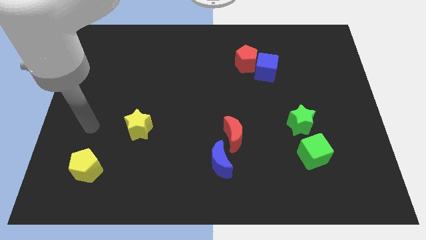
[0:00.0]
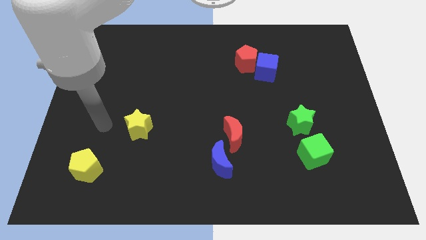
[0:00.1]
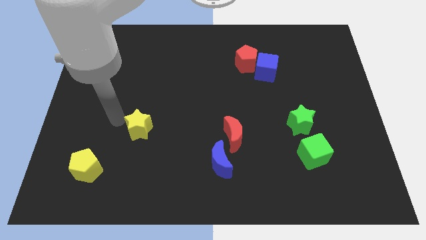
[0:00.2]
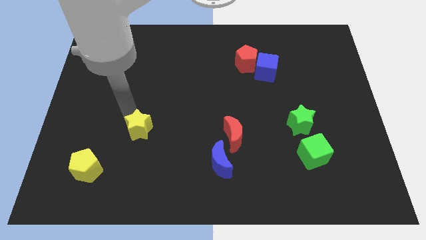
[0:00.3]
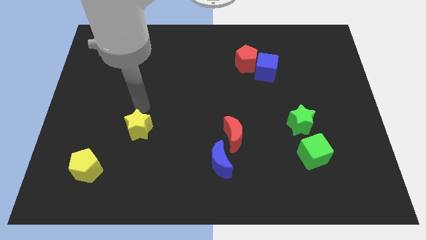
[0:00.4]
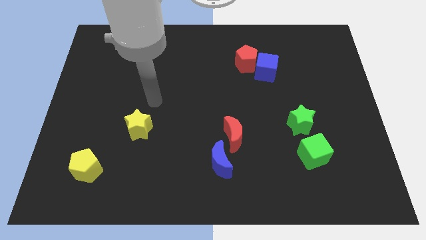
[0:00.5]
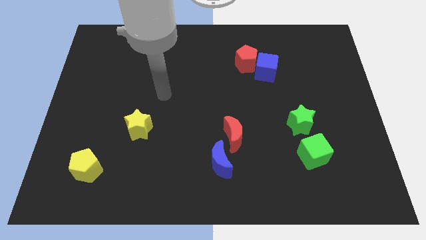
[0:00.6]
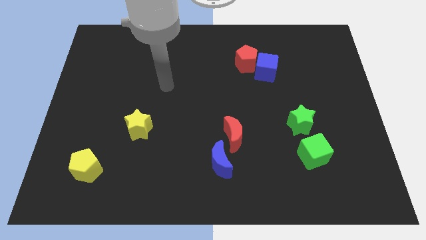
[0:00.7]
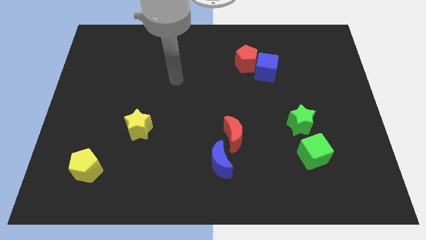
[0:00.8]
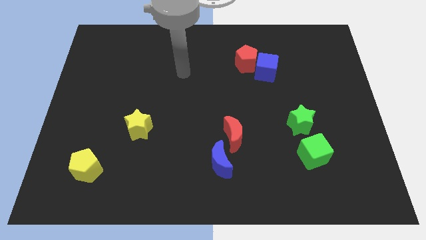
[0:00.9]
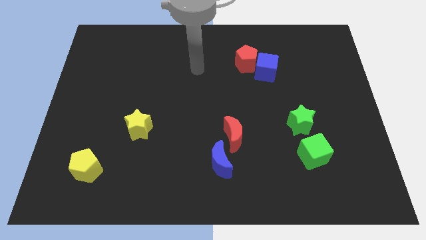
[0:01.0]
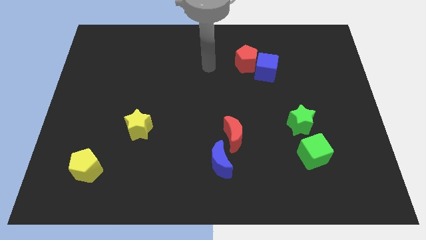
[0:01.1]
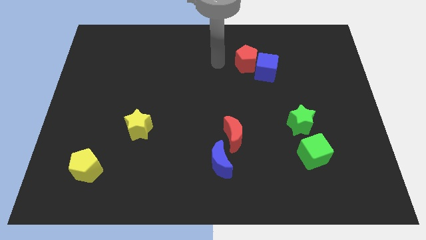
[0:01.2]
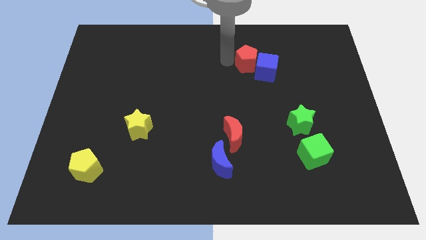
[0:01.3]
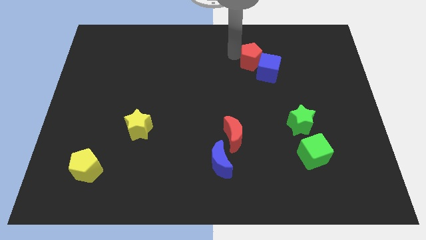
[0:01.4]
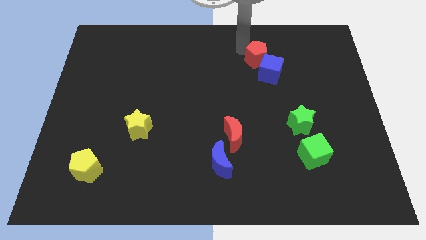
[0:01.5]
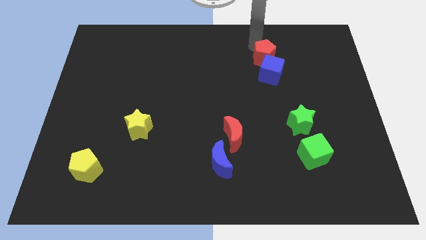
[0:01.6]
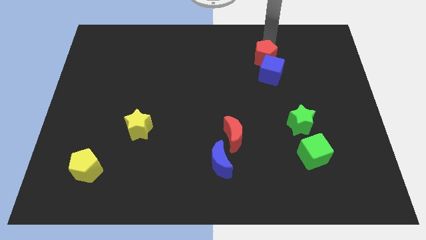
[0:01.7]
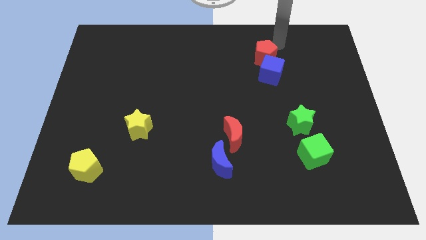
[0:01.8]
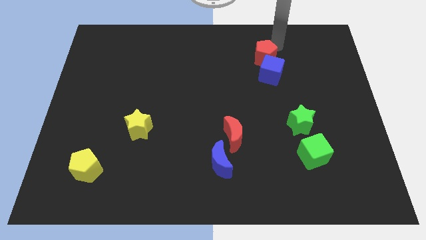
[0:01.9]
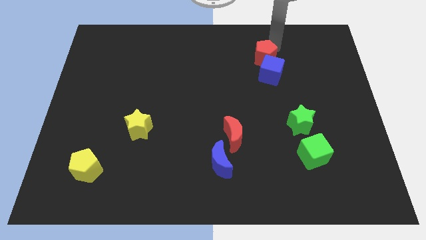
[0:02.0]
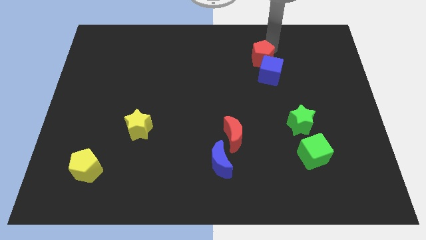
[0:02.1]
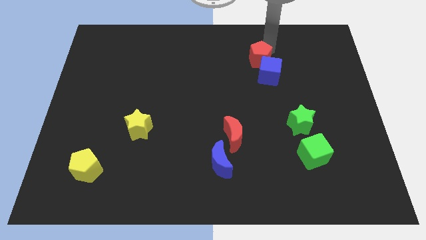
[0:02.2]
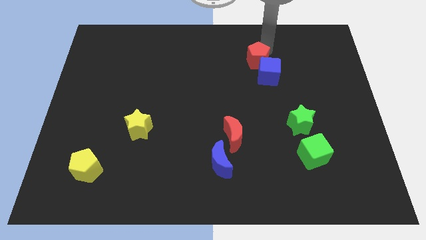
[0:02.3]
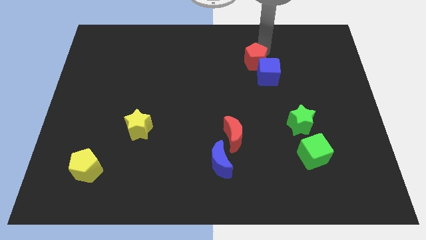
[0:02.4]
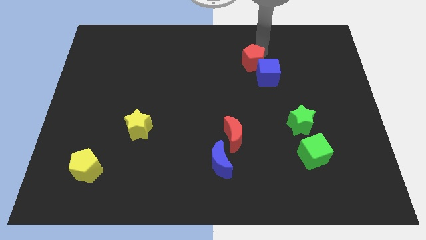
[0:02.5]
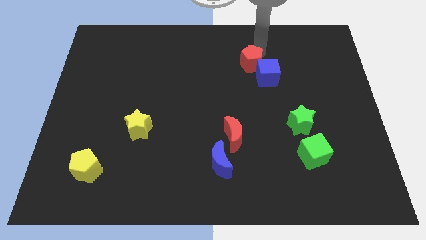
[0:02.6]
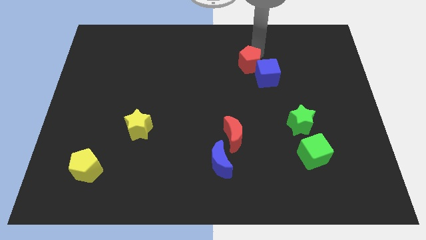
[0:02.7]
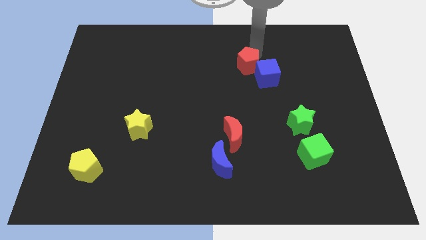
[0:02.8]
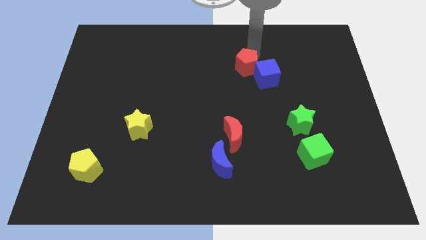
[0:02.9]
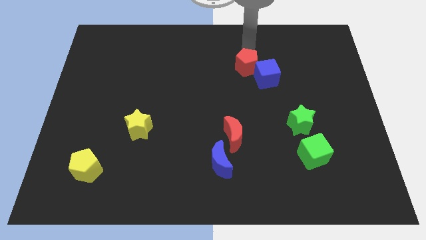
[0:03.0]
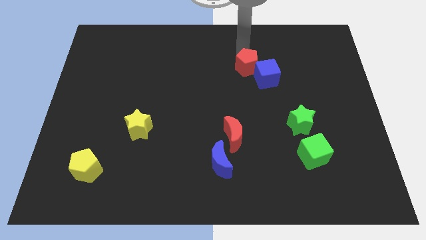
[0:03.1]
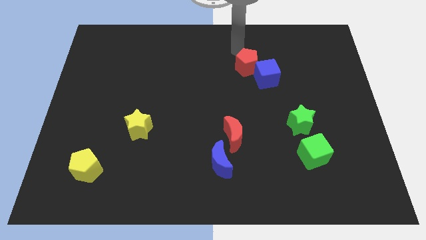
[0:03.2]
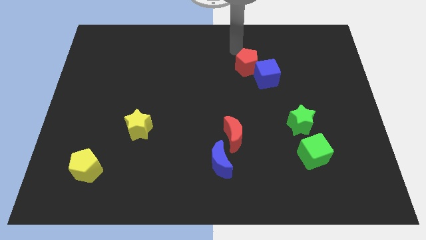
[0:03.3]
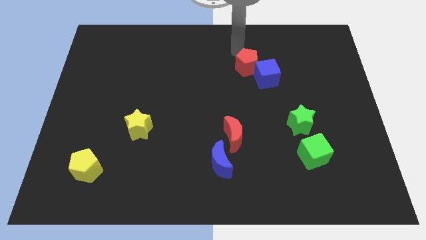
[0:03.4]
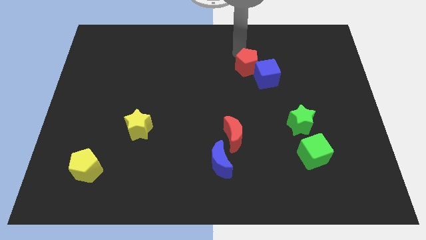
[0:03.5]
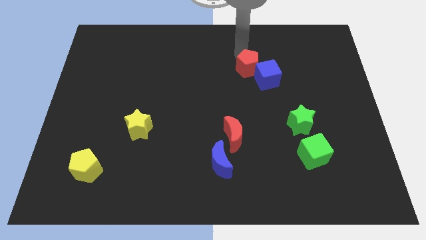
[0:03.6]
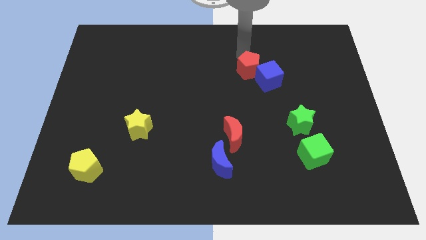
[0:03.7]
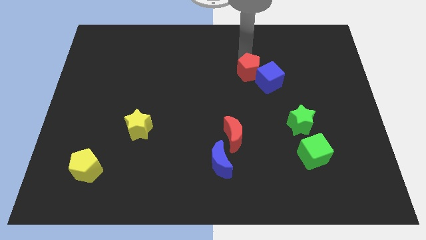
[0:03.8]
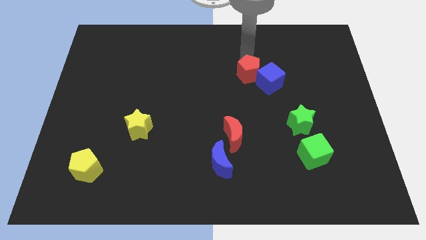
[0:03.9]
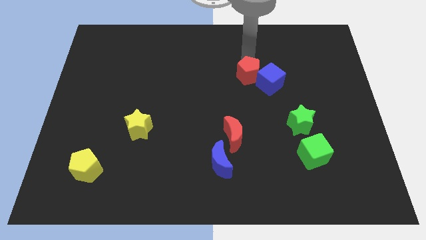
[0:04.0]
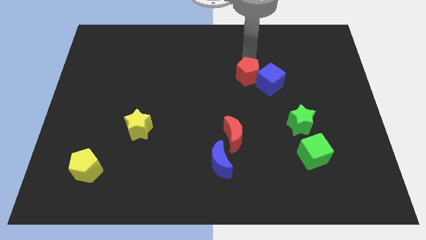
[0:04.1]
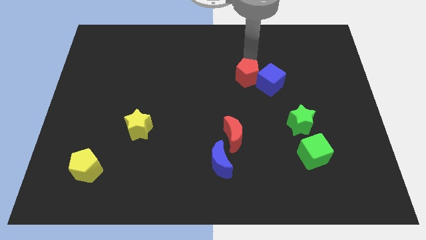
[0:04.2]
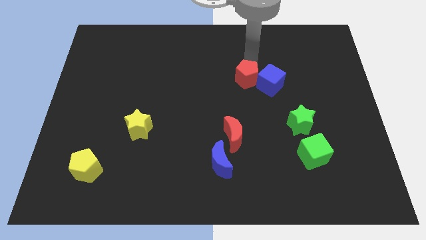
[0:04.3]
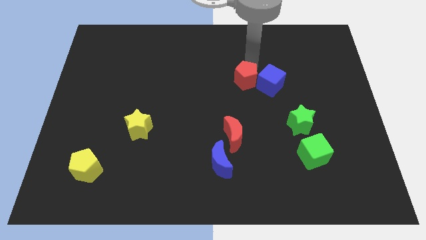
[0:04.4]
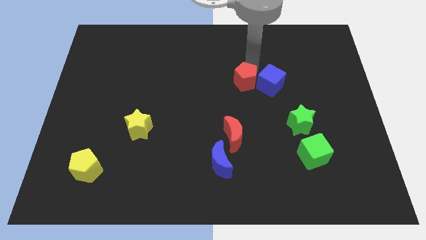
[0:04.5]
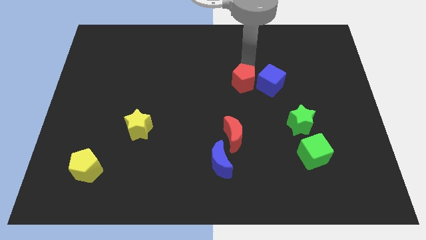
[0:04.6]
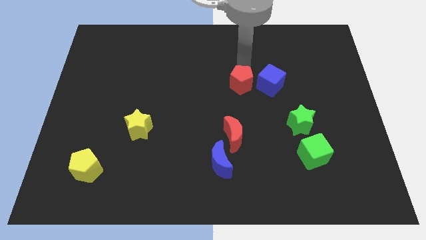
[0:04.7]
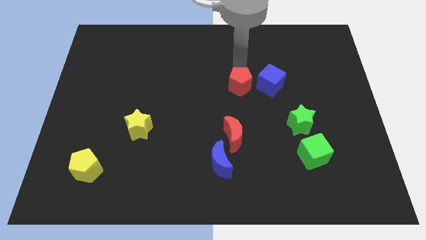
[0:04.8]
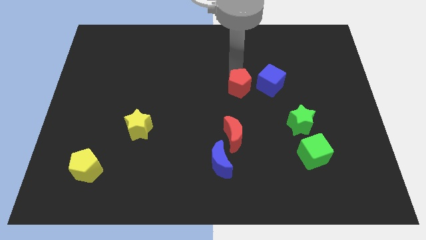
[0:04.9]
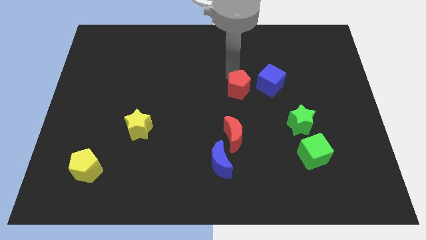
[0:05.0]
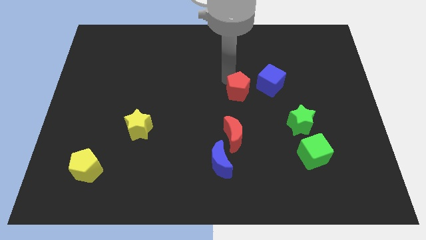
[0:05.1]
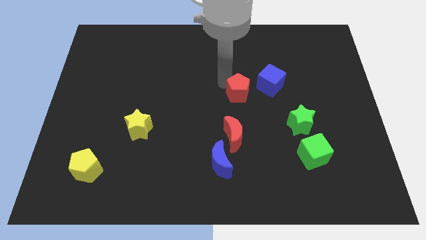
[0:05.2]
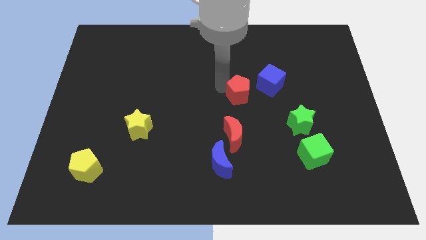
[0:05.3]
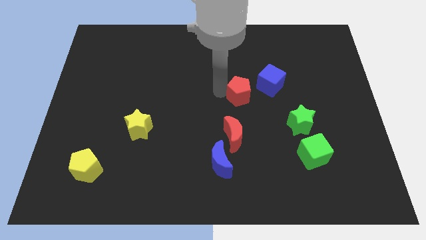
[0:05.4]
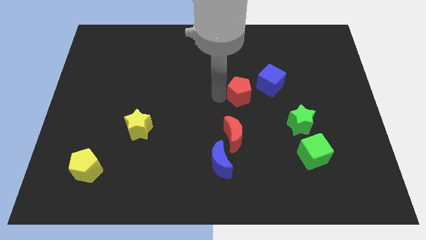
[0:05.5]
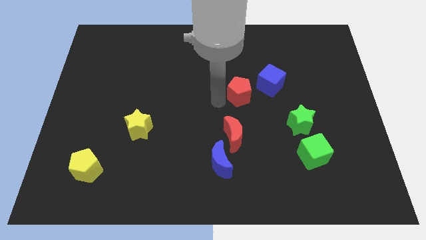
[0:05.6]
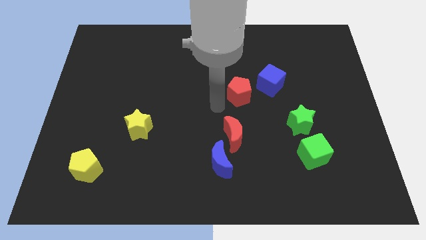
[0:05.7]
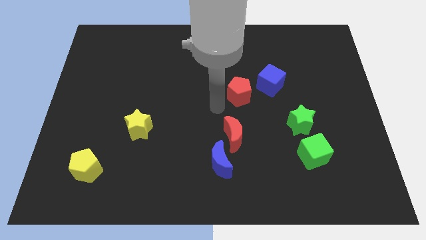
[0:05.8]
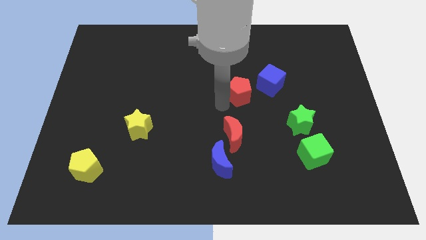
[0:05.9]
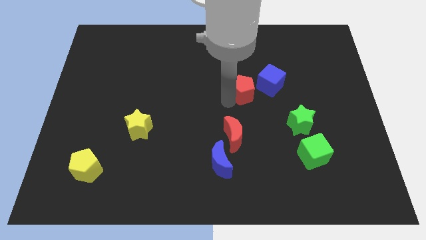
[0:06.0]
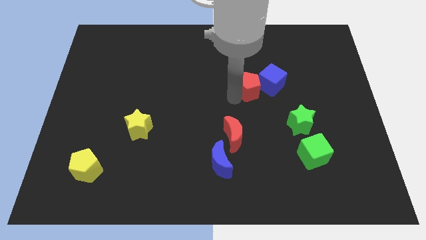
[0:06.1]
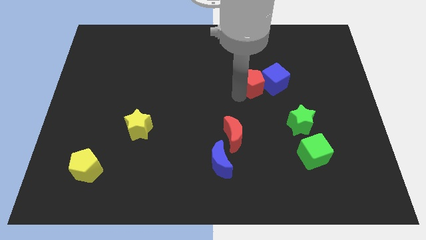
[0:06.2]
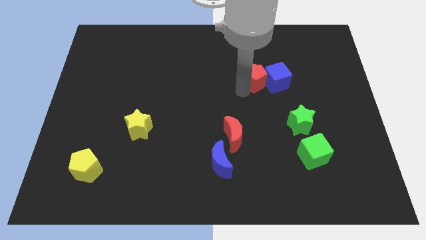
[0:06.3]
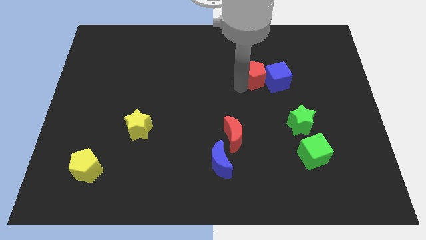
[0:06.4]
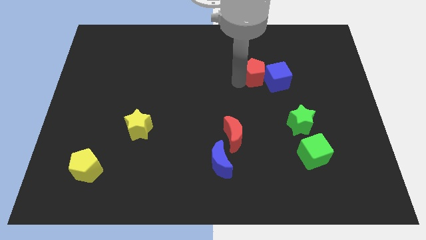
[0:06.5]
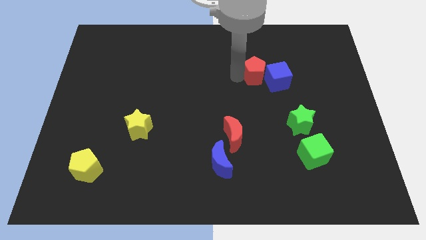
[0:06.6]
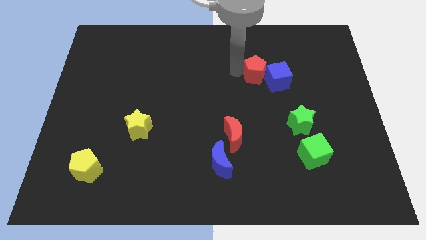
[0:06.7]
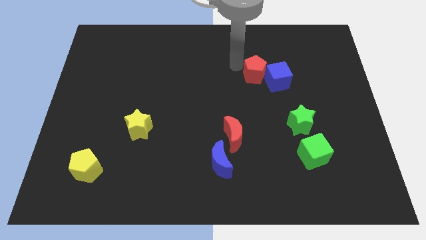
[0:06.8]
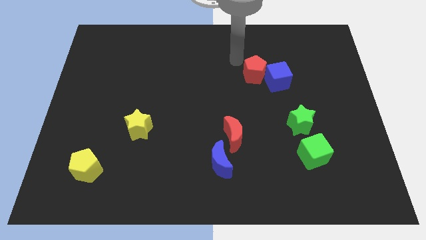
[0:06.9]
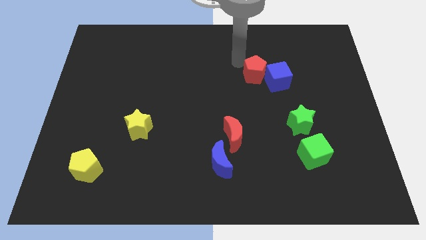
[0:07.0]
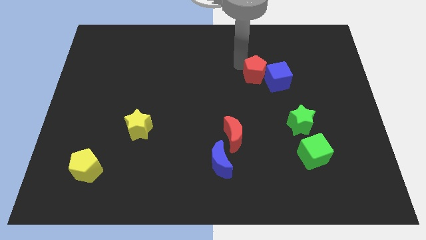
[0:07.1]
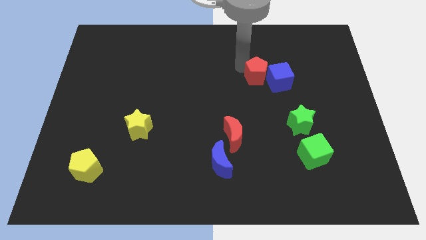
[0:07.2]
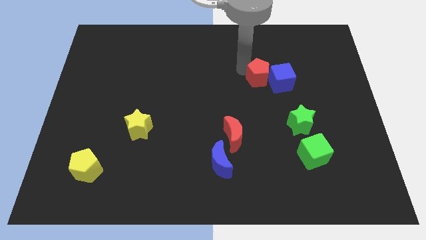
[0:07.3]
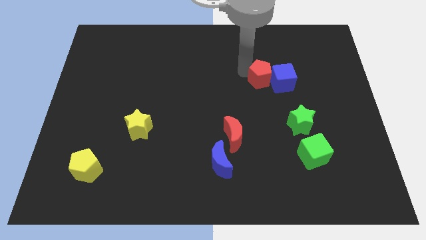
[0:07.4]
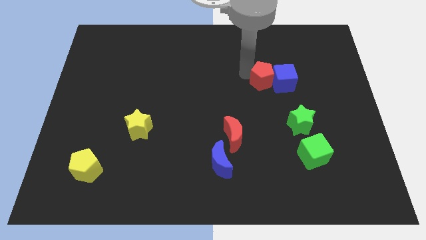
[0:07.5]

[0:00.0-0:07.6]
slide the red pentagon downwards and to the right diagonally a little bit

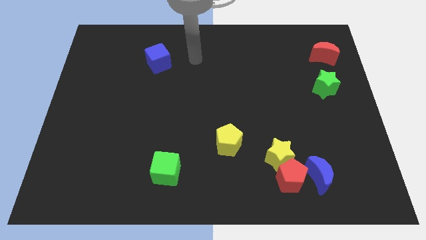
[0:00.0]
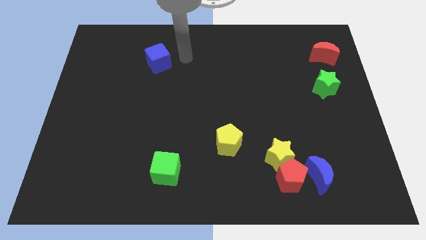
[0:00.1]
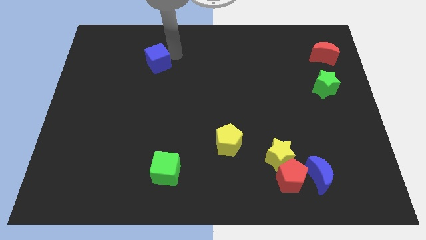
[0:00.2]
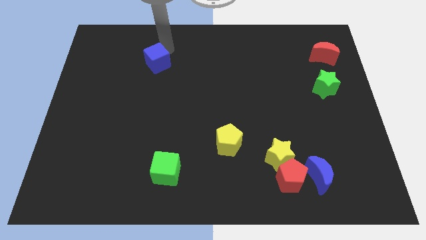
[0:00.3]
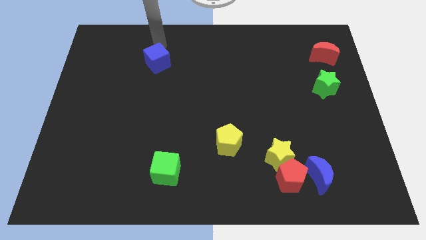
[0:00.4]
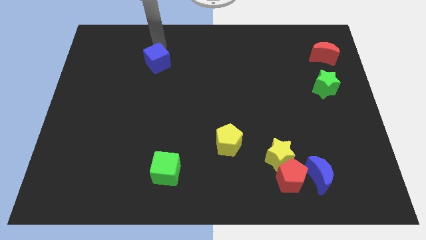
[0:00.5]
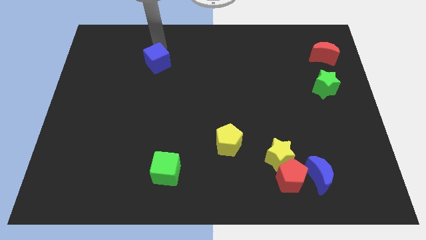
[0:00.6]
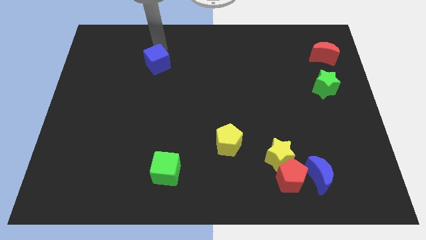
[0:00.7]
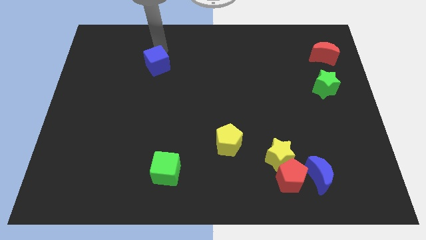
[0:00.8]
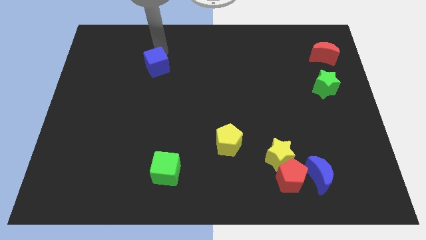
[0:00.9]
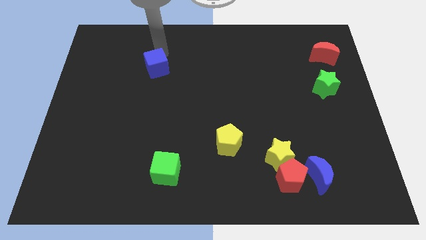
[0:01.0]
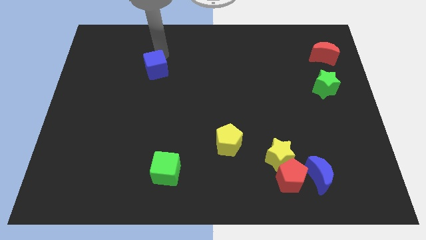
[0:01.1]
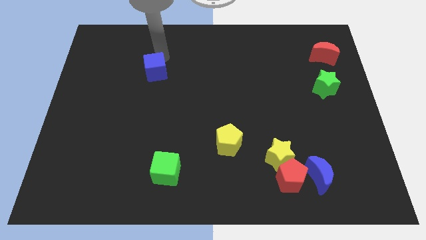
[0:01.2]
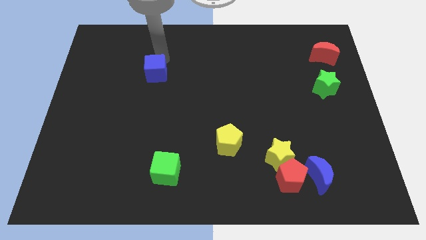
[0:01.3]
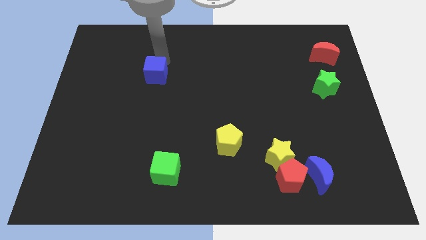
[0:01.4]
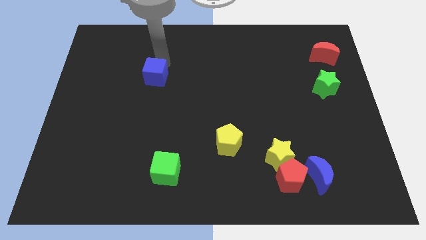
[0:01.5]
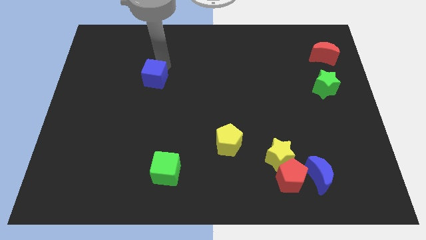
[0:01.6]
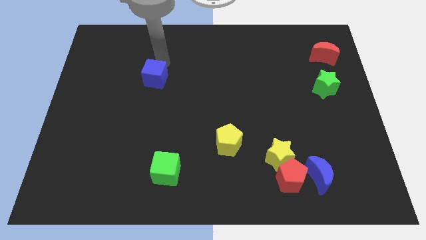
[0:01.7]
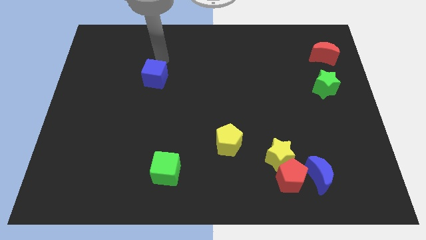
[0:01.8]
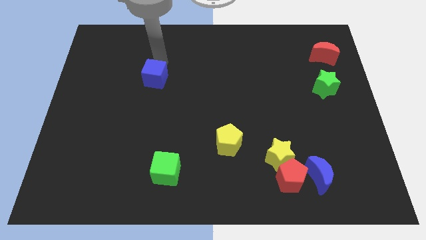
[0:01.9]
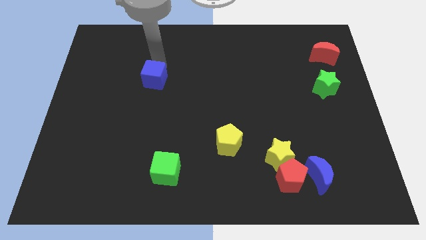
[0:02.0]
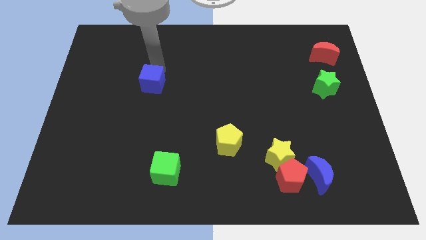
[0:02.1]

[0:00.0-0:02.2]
slightly push the blue cube down
